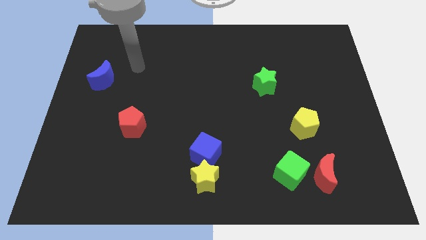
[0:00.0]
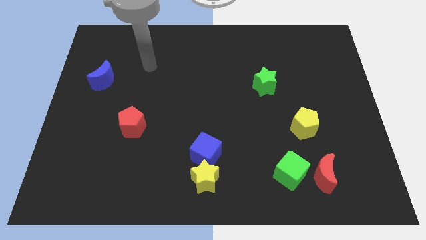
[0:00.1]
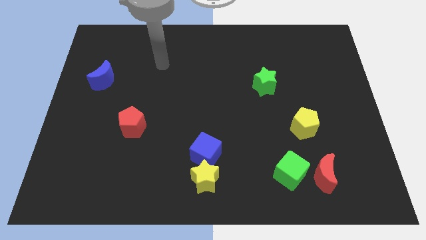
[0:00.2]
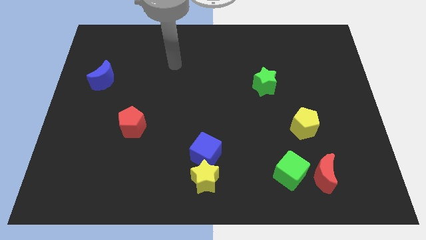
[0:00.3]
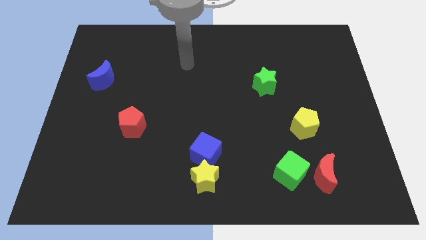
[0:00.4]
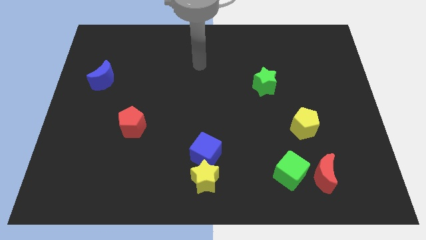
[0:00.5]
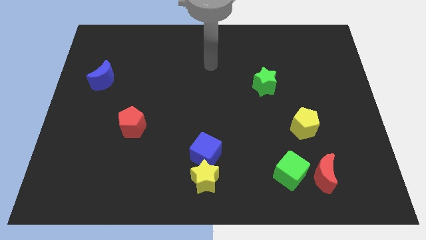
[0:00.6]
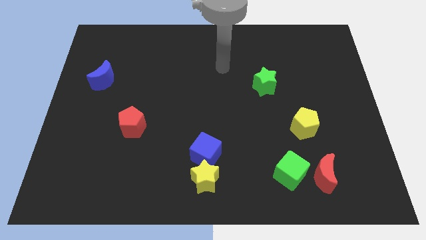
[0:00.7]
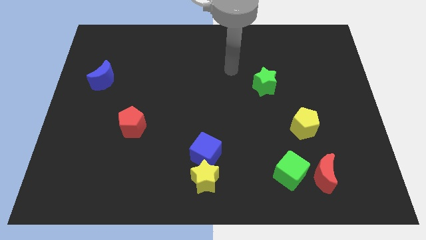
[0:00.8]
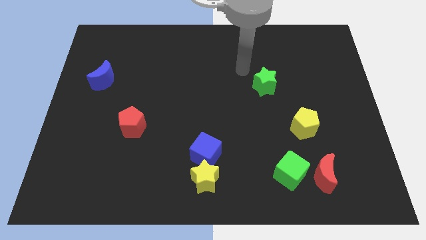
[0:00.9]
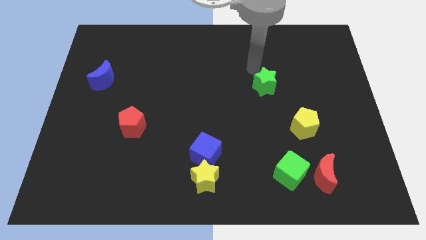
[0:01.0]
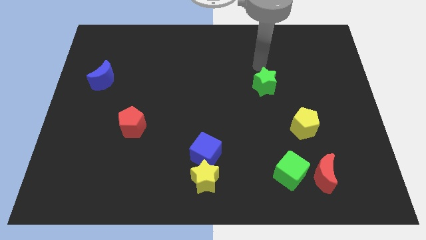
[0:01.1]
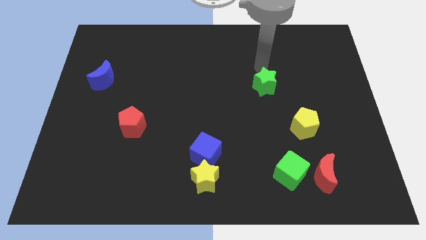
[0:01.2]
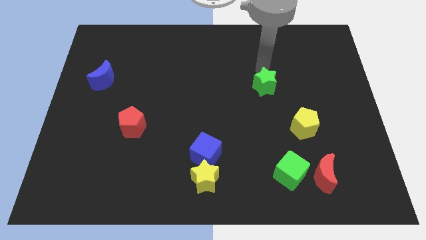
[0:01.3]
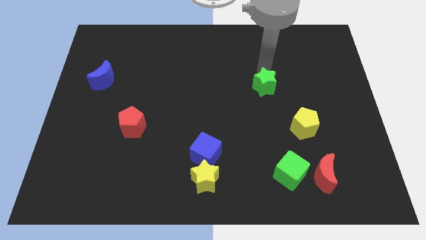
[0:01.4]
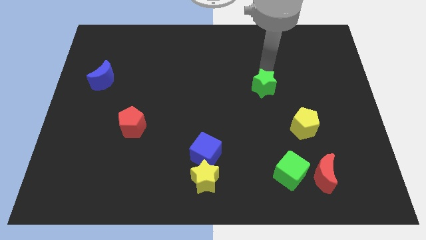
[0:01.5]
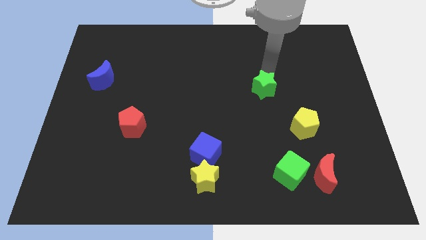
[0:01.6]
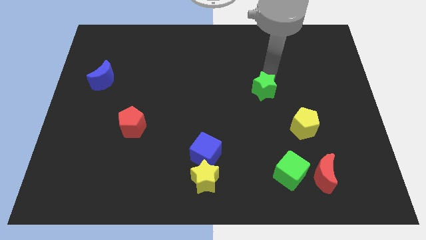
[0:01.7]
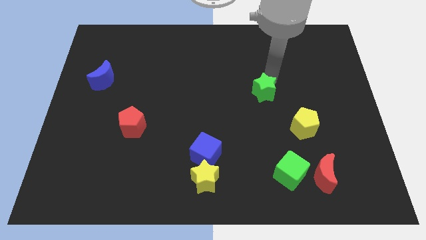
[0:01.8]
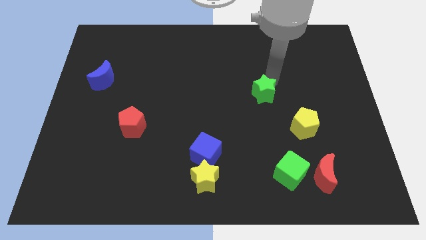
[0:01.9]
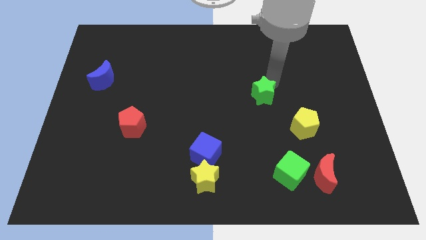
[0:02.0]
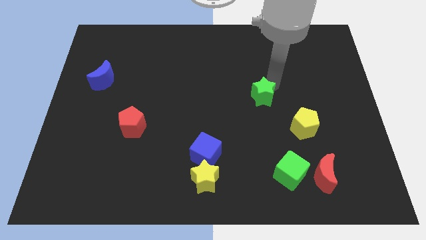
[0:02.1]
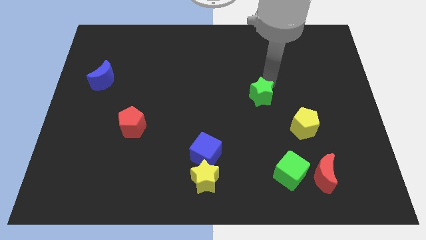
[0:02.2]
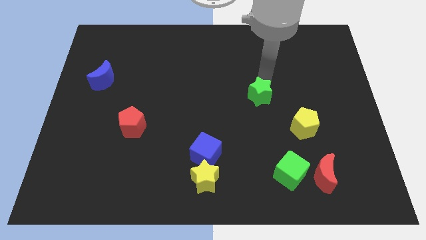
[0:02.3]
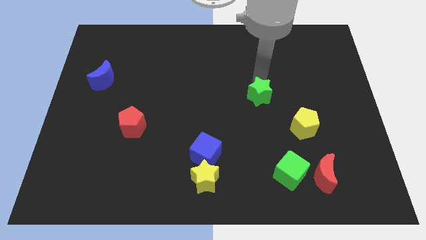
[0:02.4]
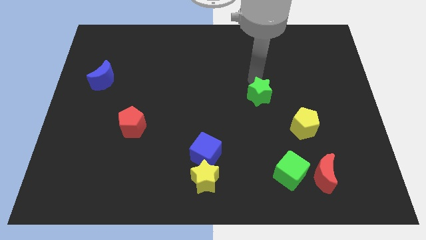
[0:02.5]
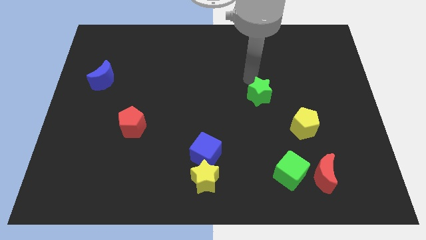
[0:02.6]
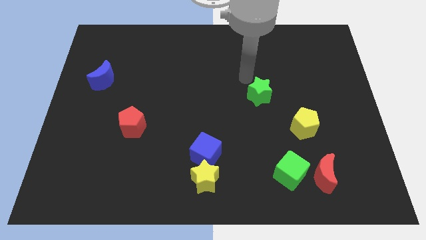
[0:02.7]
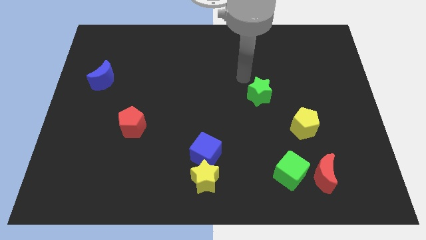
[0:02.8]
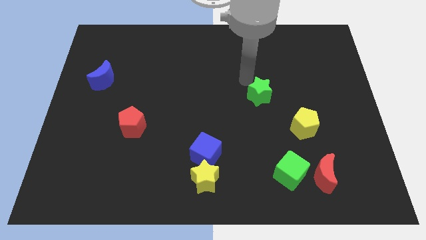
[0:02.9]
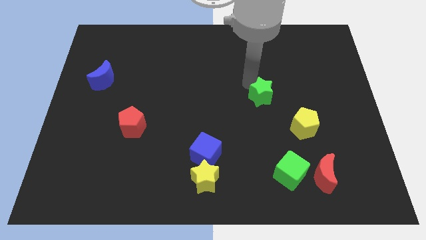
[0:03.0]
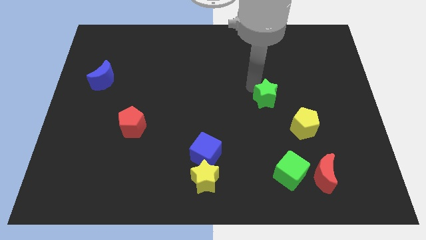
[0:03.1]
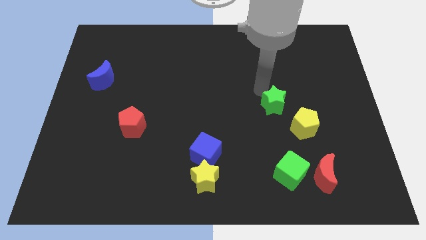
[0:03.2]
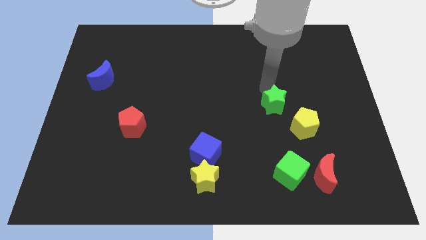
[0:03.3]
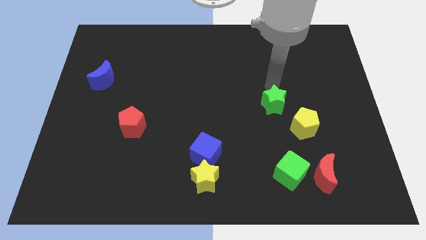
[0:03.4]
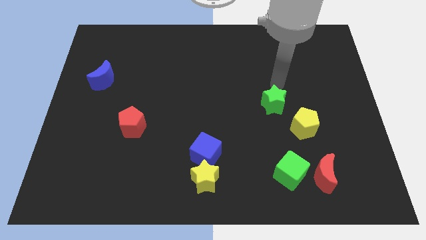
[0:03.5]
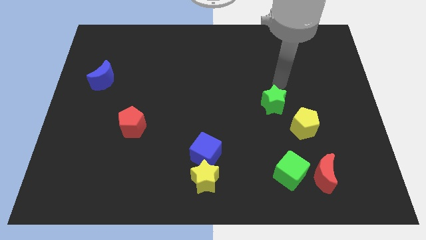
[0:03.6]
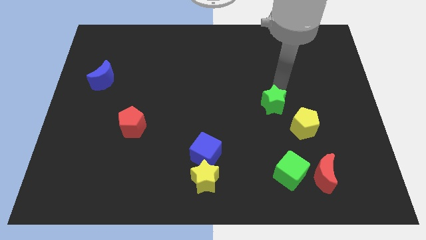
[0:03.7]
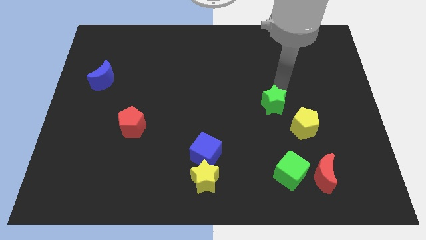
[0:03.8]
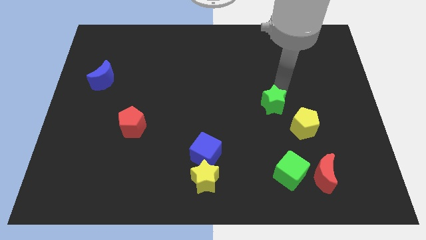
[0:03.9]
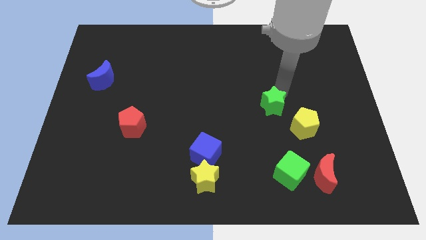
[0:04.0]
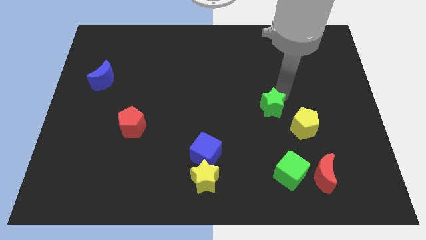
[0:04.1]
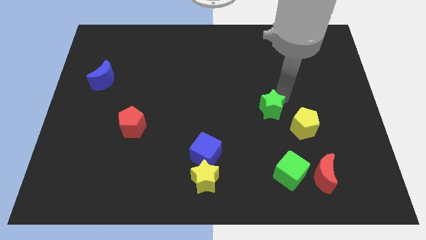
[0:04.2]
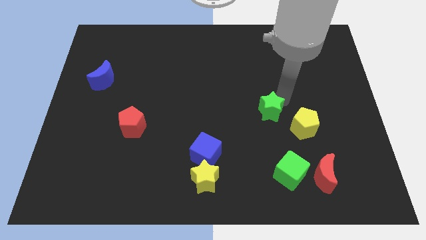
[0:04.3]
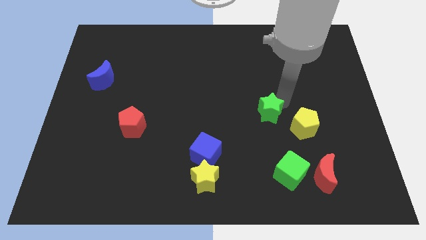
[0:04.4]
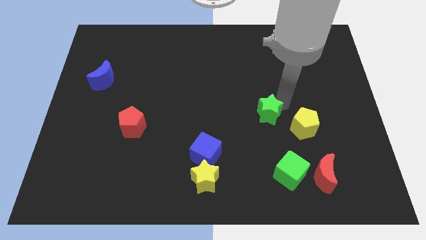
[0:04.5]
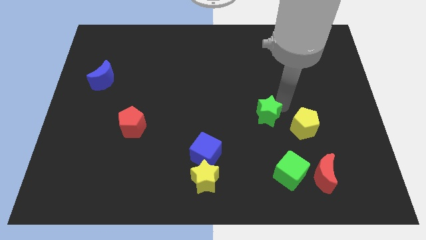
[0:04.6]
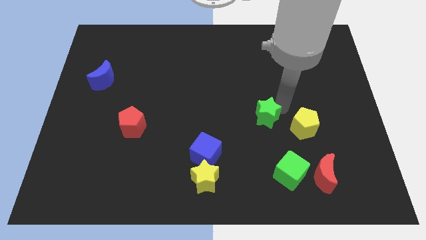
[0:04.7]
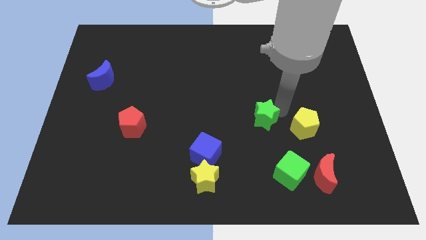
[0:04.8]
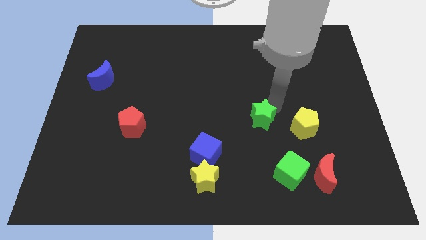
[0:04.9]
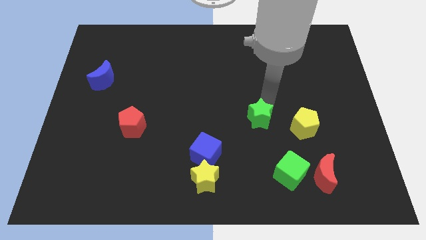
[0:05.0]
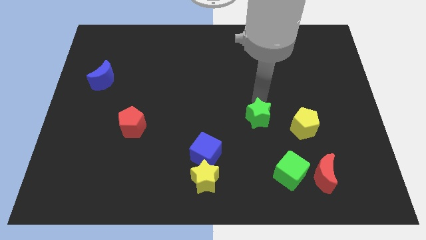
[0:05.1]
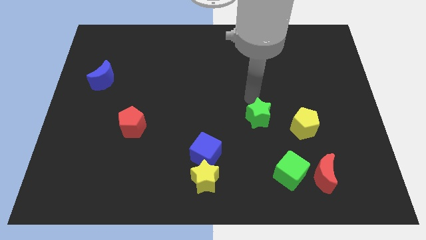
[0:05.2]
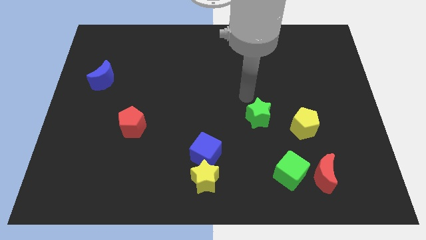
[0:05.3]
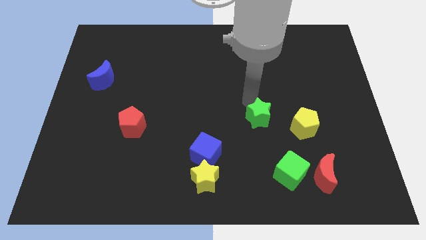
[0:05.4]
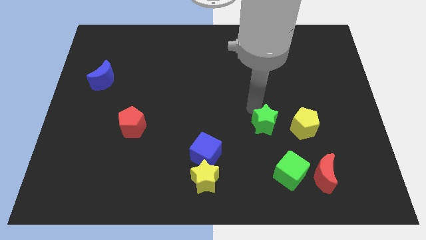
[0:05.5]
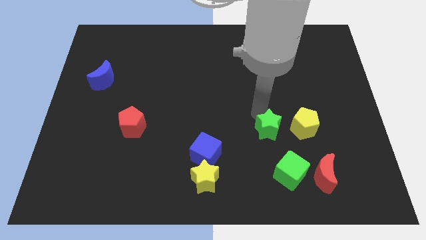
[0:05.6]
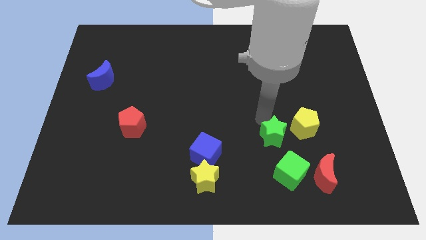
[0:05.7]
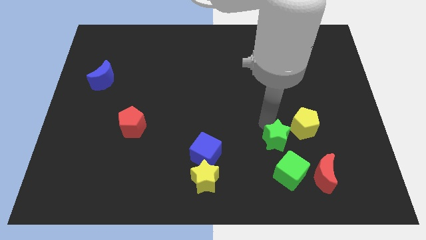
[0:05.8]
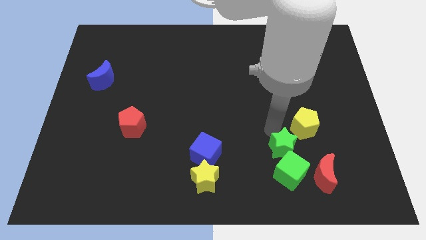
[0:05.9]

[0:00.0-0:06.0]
put the green star towards the green cube
